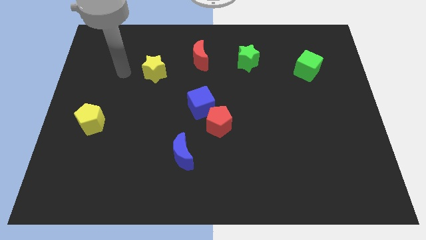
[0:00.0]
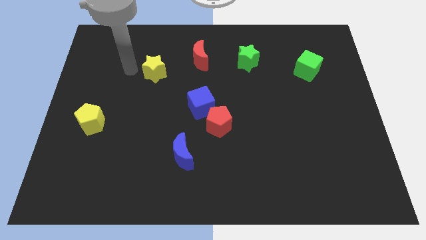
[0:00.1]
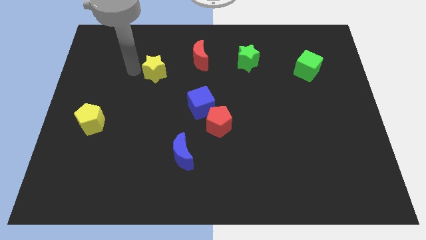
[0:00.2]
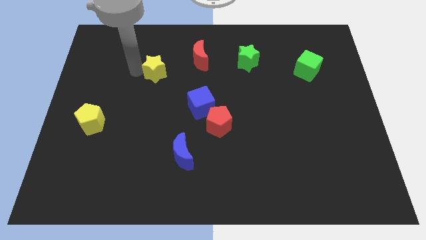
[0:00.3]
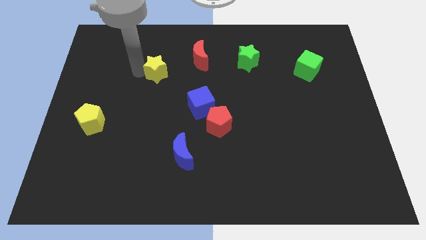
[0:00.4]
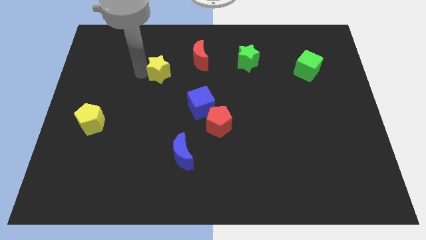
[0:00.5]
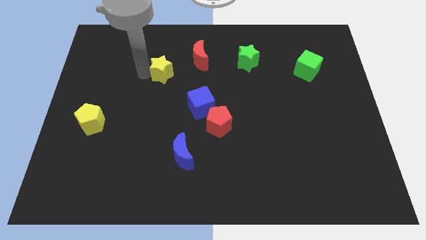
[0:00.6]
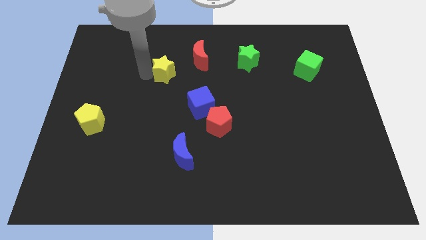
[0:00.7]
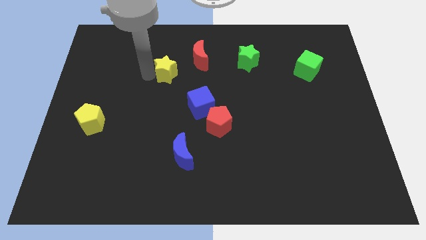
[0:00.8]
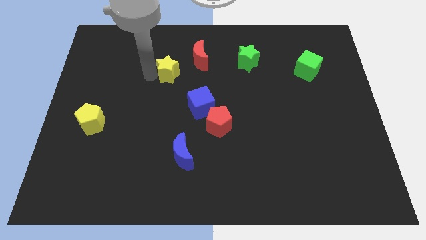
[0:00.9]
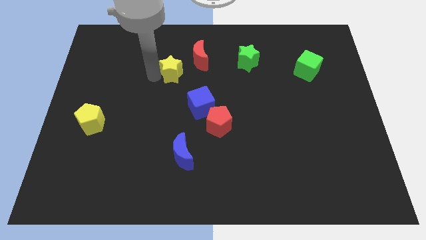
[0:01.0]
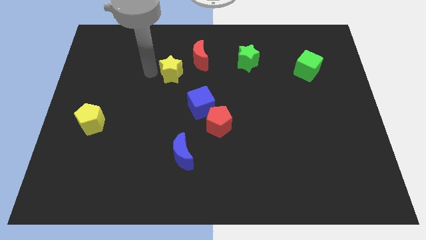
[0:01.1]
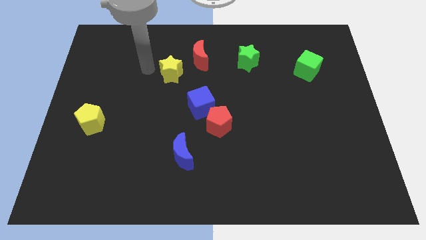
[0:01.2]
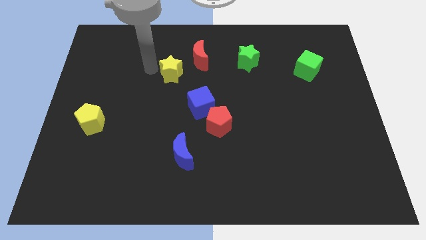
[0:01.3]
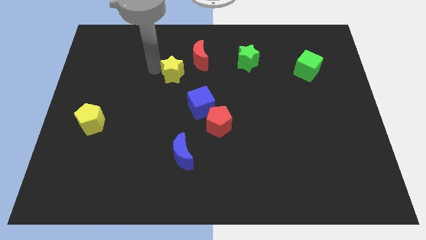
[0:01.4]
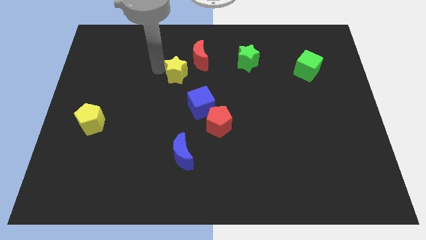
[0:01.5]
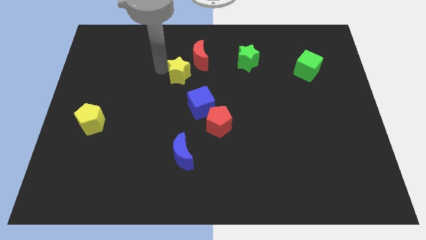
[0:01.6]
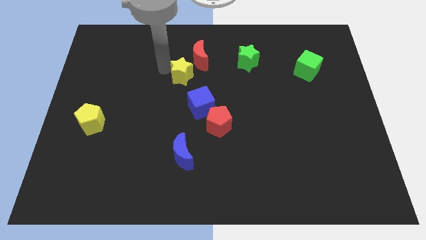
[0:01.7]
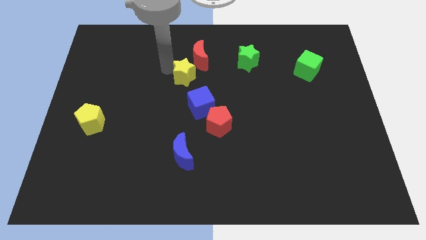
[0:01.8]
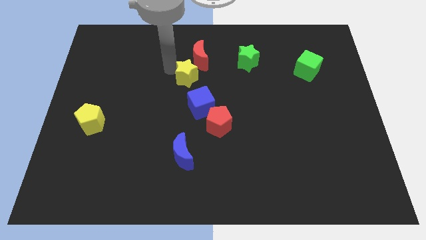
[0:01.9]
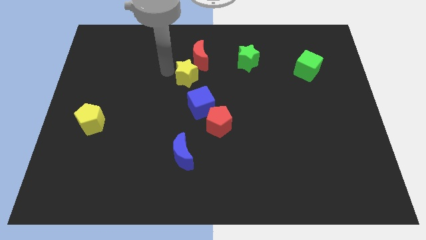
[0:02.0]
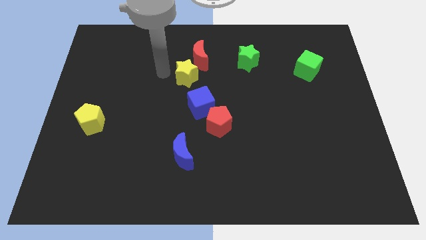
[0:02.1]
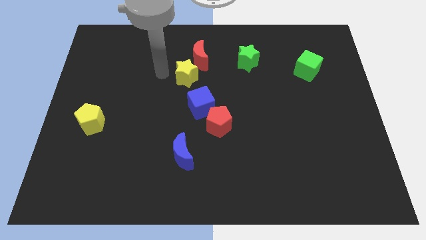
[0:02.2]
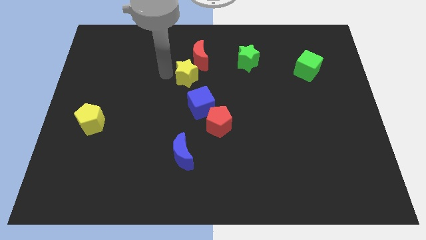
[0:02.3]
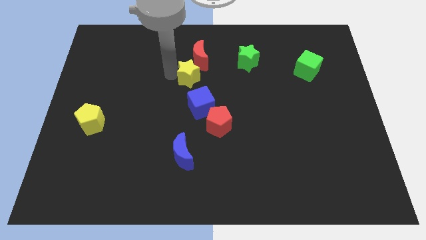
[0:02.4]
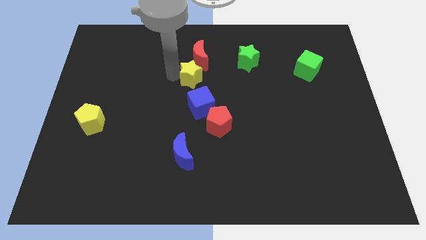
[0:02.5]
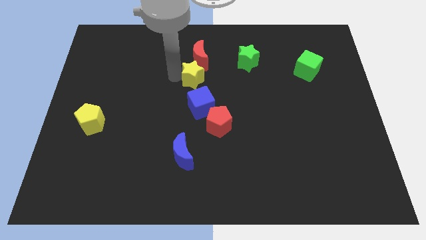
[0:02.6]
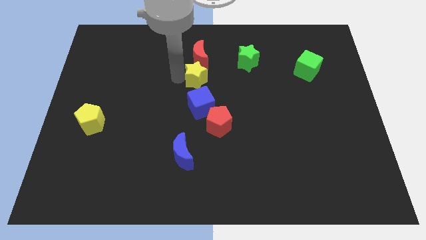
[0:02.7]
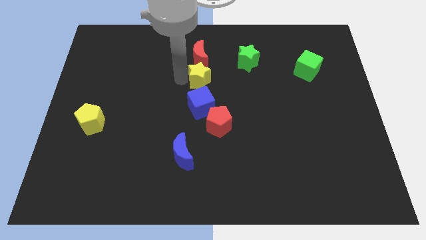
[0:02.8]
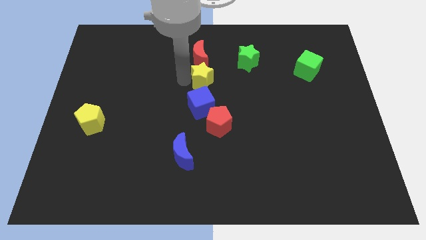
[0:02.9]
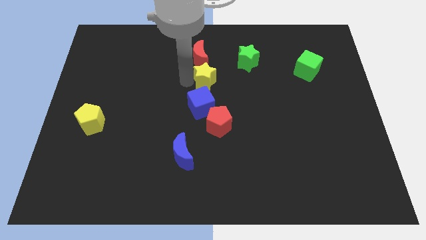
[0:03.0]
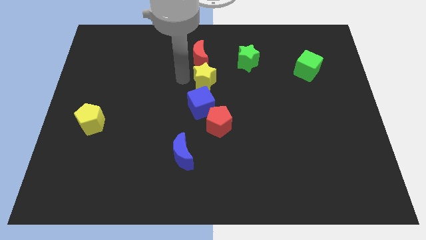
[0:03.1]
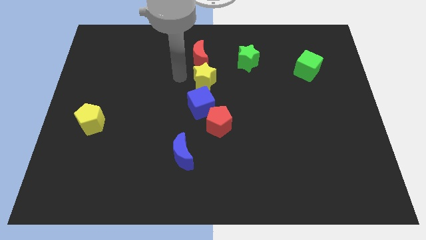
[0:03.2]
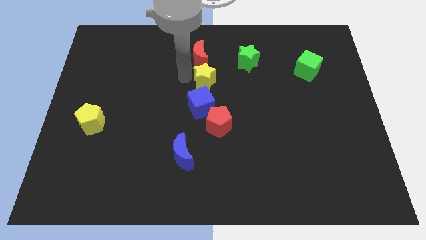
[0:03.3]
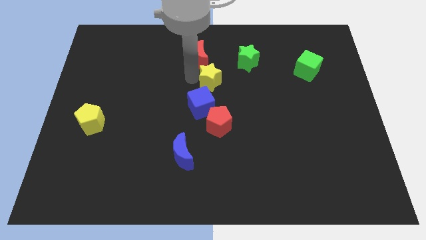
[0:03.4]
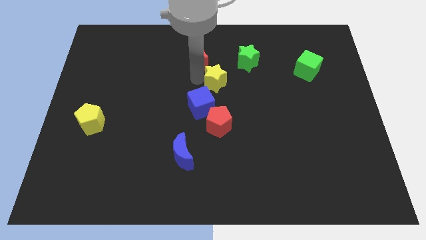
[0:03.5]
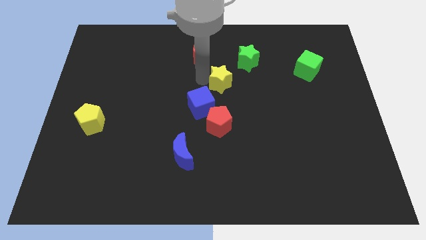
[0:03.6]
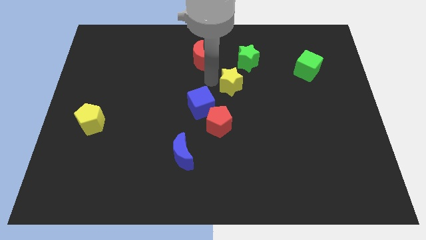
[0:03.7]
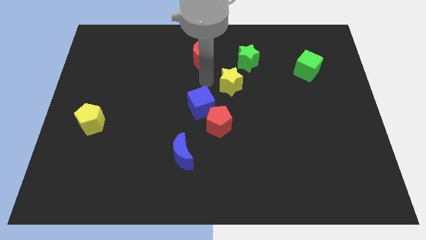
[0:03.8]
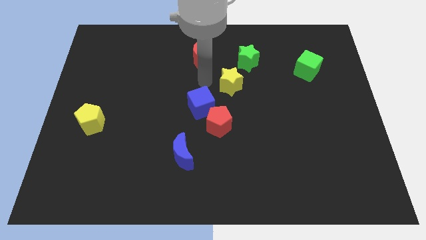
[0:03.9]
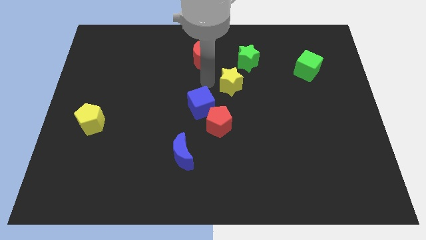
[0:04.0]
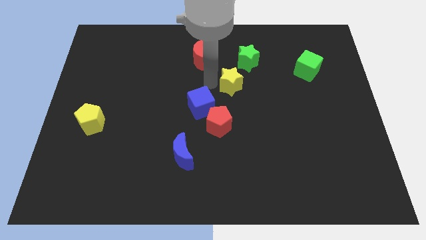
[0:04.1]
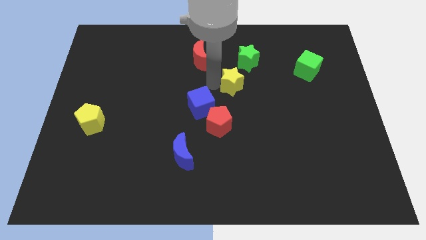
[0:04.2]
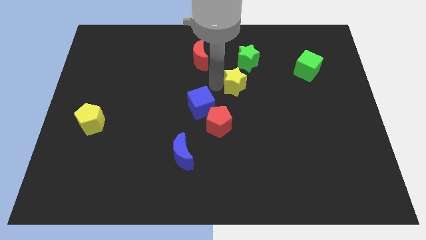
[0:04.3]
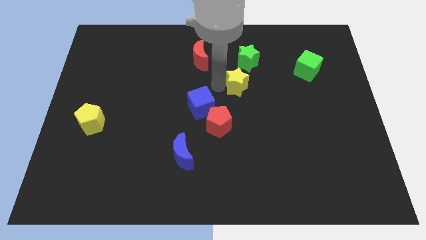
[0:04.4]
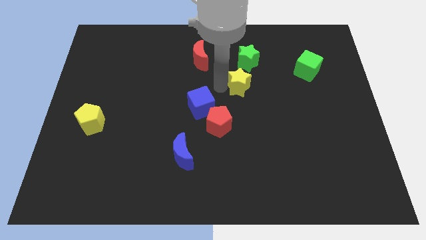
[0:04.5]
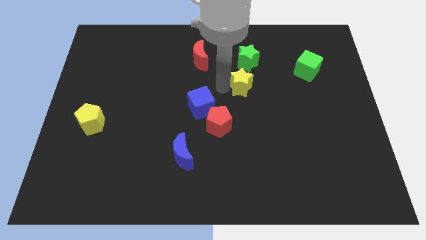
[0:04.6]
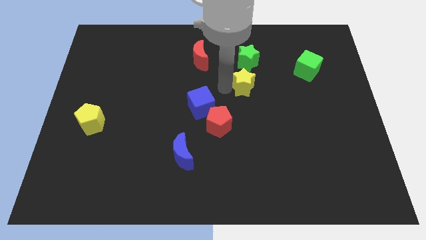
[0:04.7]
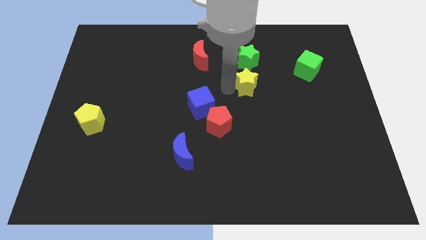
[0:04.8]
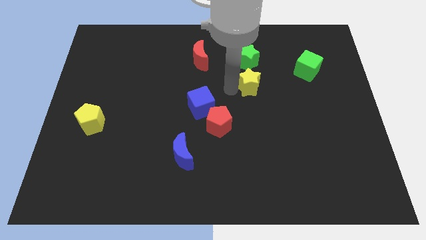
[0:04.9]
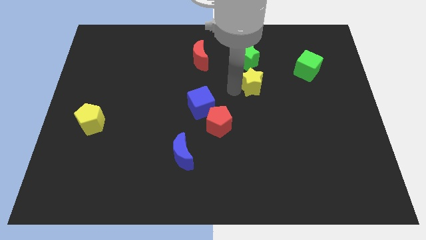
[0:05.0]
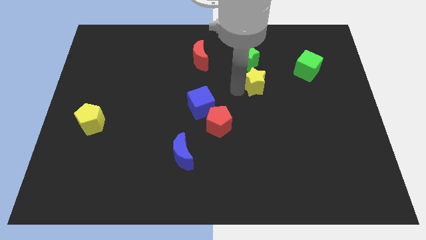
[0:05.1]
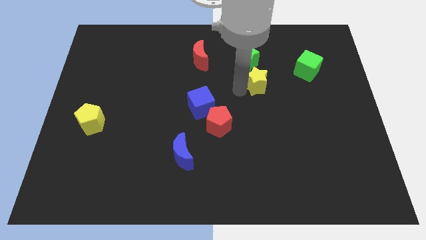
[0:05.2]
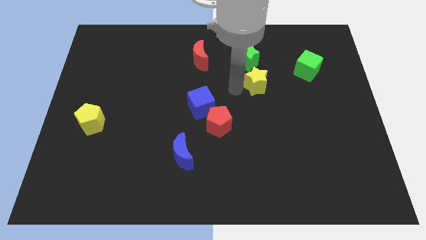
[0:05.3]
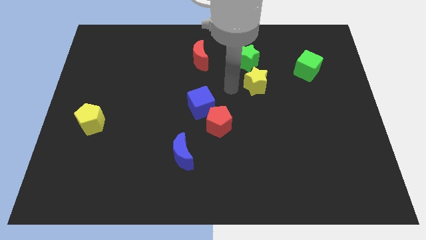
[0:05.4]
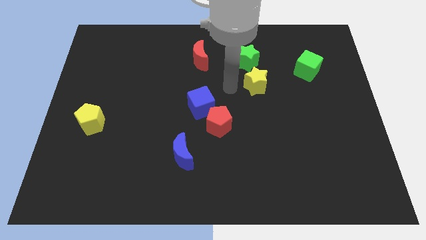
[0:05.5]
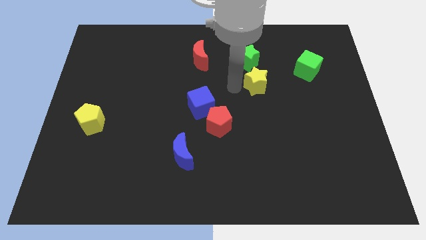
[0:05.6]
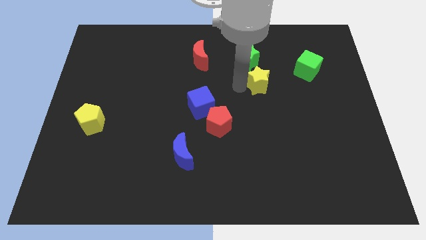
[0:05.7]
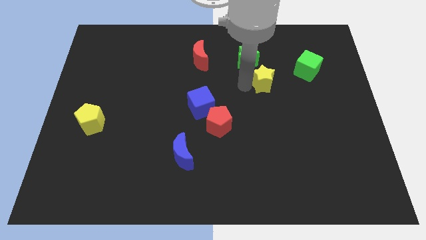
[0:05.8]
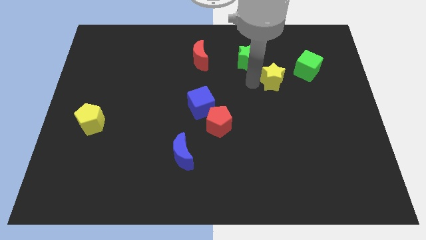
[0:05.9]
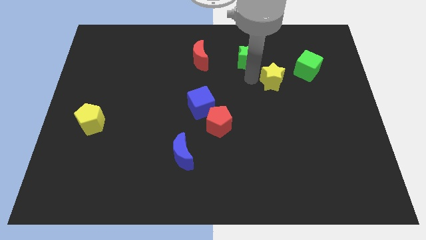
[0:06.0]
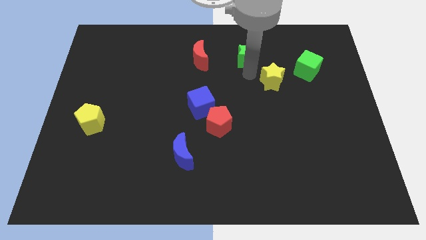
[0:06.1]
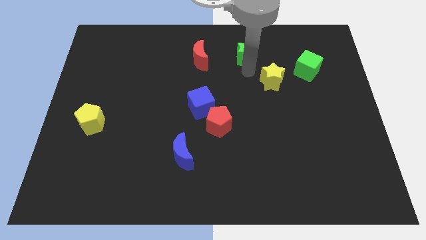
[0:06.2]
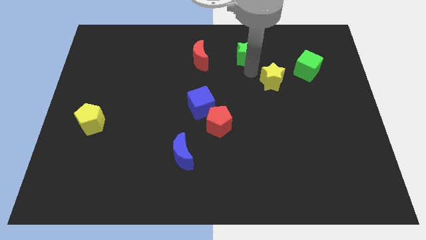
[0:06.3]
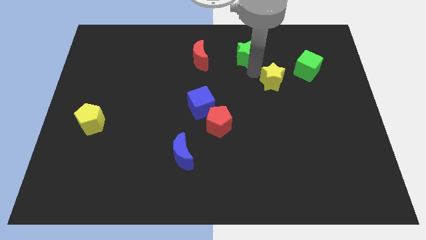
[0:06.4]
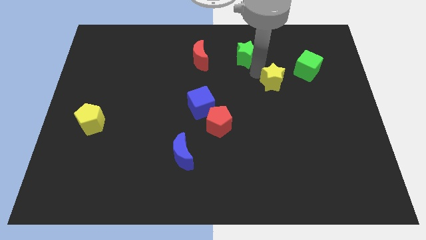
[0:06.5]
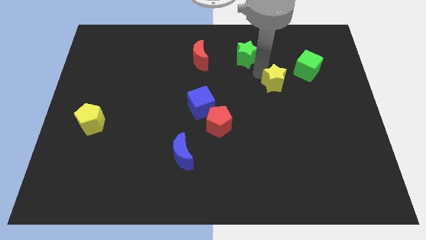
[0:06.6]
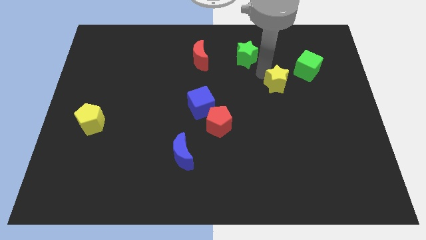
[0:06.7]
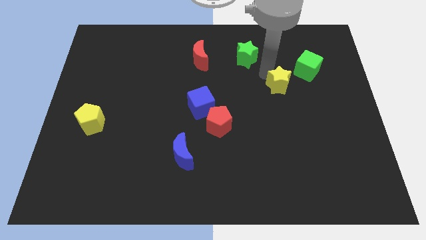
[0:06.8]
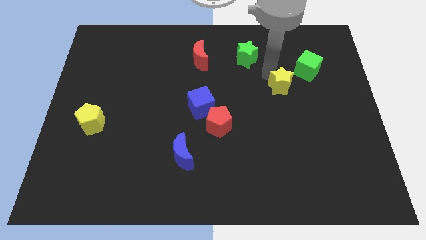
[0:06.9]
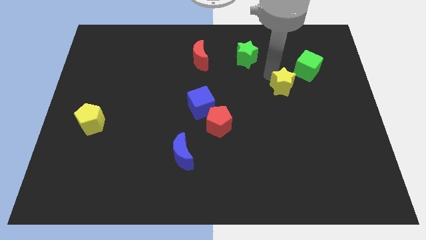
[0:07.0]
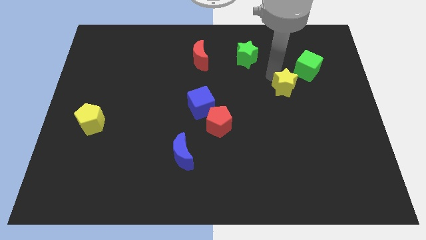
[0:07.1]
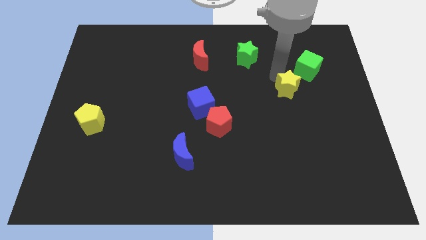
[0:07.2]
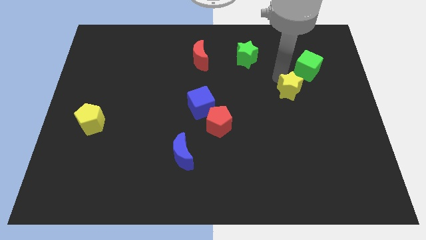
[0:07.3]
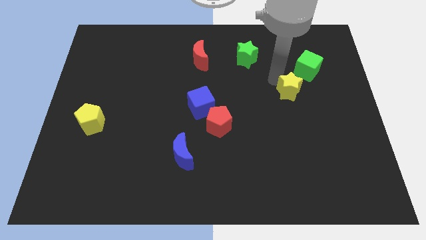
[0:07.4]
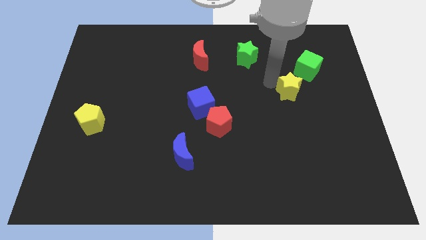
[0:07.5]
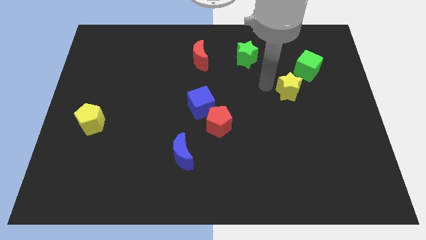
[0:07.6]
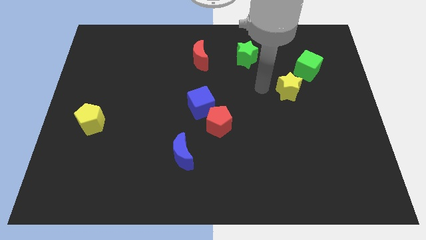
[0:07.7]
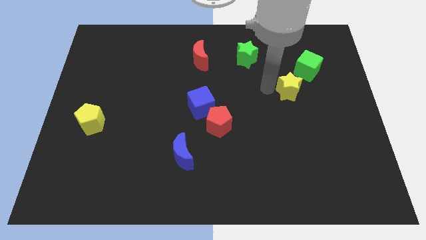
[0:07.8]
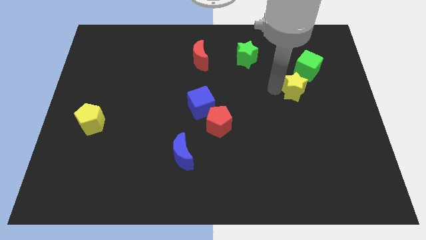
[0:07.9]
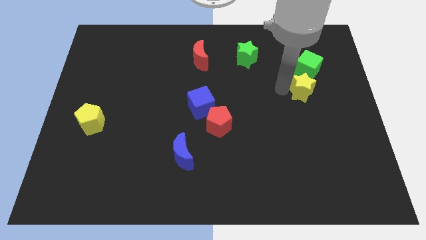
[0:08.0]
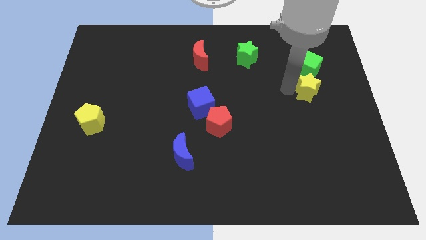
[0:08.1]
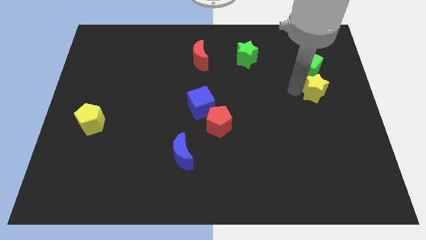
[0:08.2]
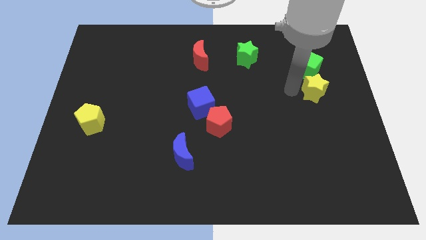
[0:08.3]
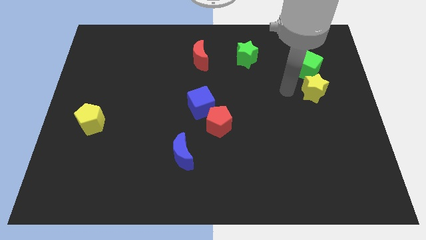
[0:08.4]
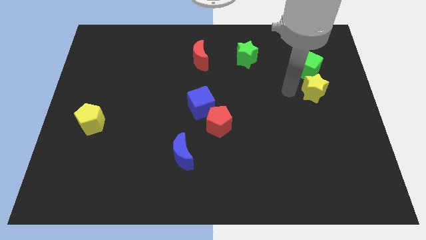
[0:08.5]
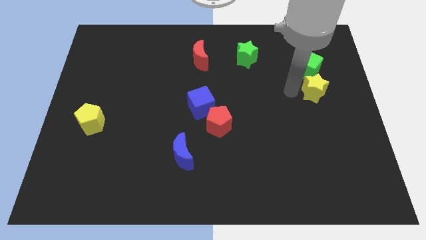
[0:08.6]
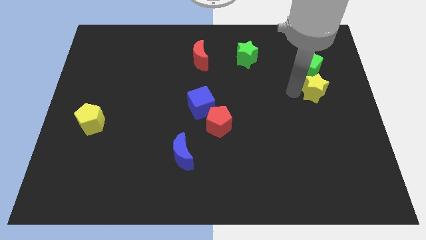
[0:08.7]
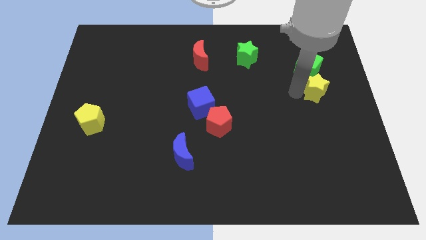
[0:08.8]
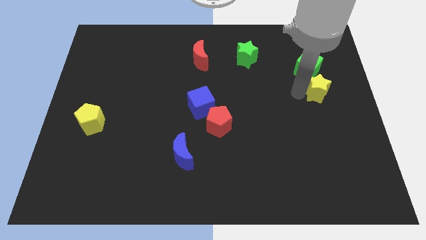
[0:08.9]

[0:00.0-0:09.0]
slide the yellow star to the right side
